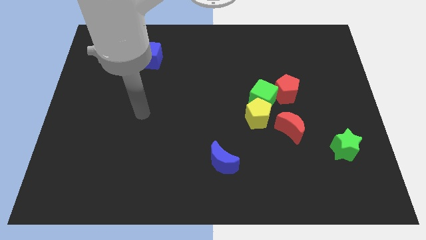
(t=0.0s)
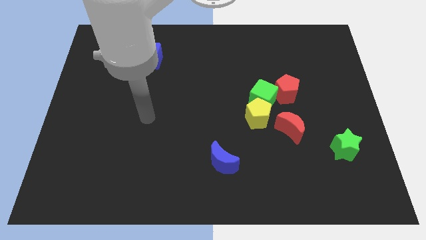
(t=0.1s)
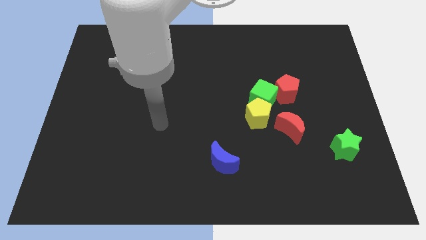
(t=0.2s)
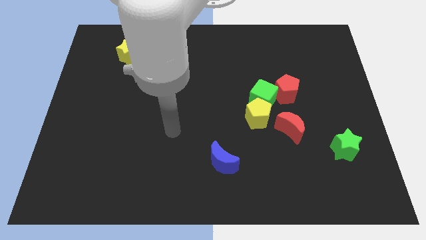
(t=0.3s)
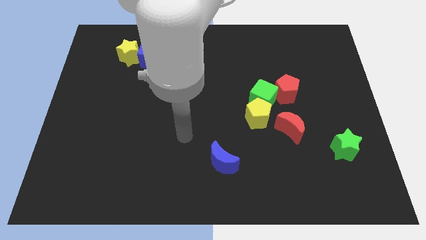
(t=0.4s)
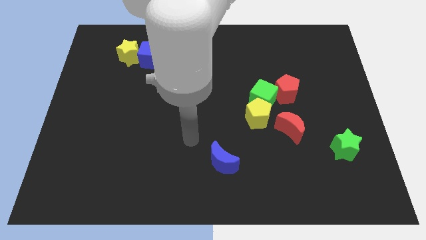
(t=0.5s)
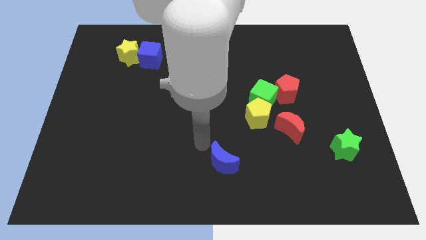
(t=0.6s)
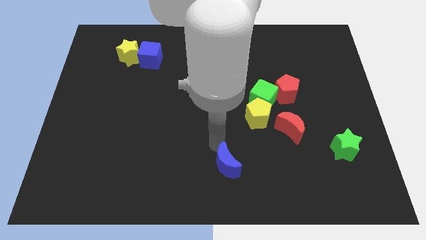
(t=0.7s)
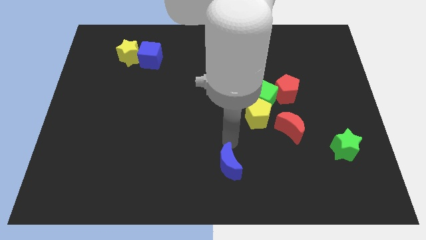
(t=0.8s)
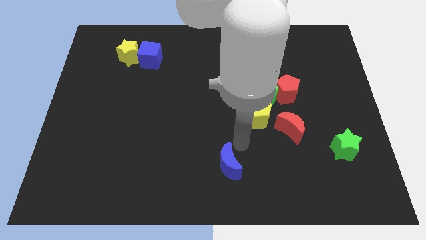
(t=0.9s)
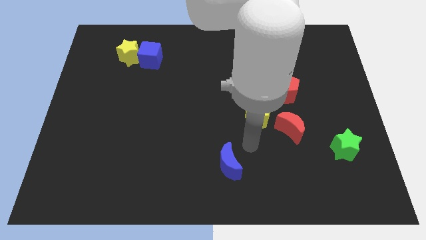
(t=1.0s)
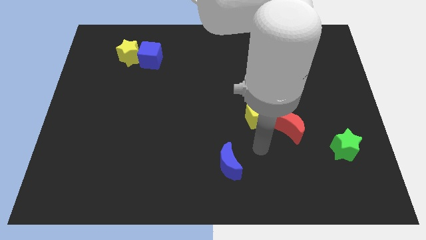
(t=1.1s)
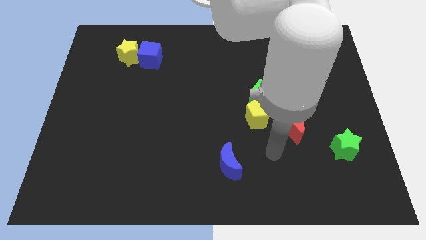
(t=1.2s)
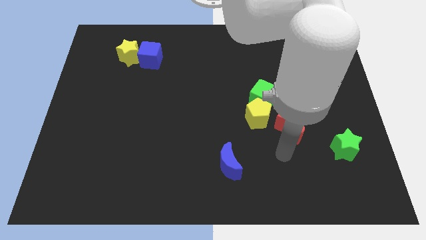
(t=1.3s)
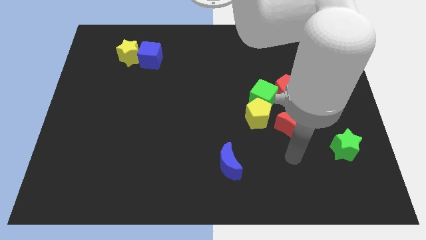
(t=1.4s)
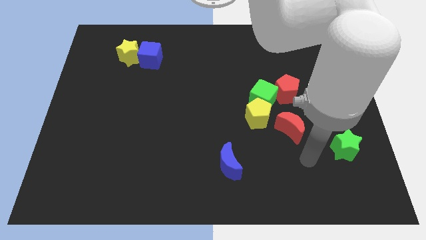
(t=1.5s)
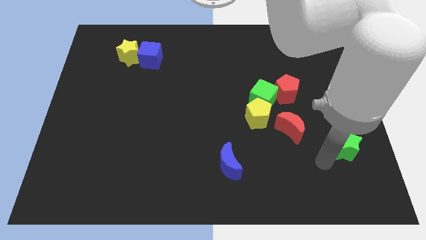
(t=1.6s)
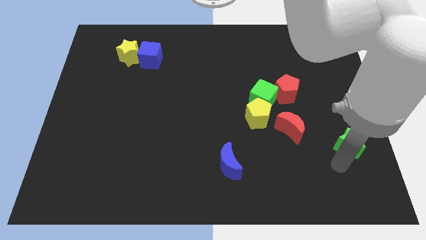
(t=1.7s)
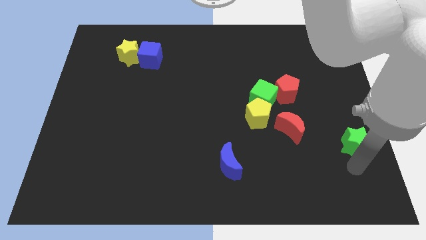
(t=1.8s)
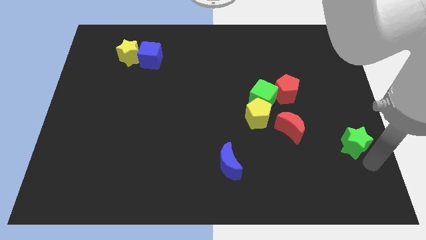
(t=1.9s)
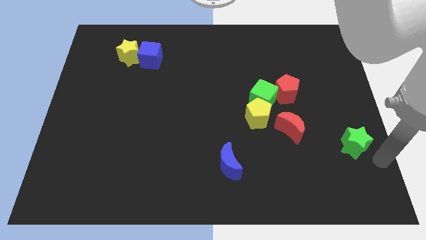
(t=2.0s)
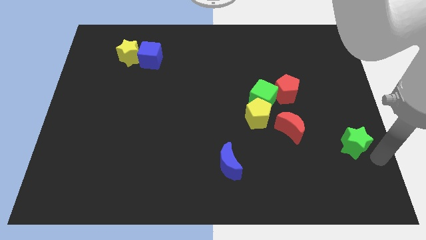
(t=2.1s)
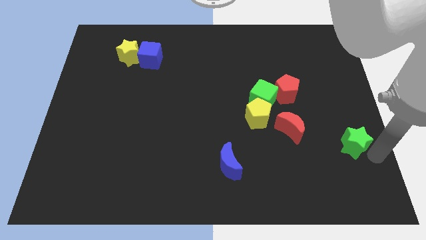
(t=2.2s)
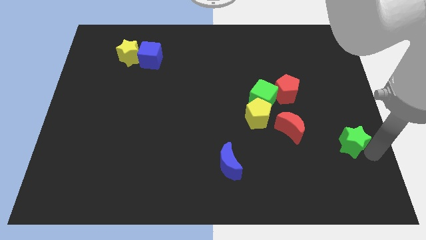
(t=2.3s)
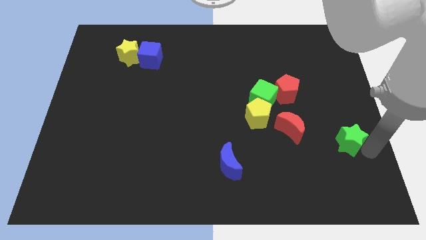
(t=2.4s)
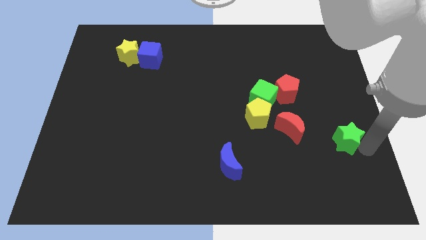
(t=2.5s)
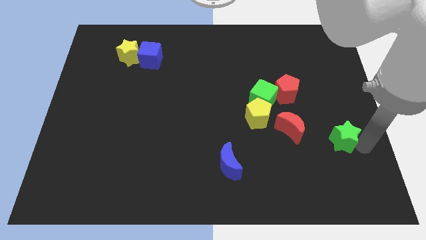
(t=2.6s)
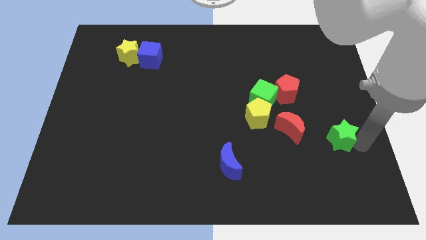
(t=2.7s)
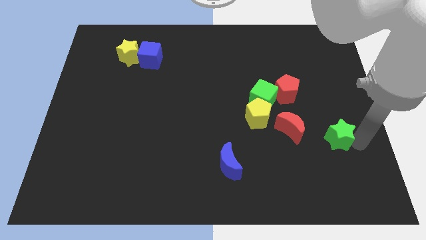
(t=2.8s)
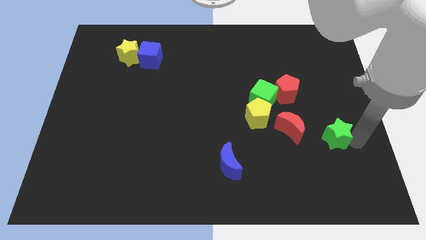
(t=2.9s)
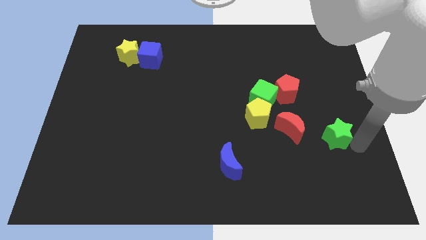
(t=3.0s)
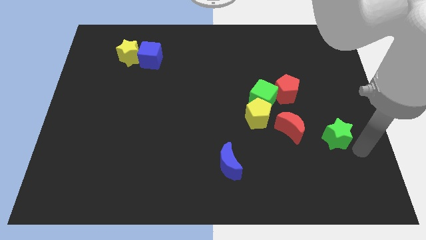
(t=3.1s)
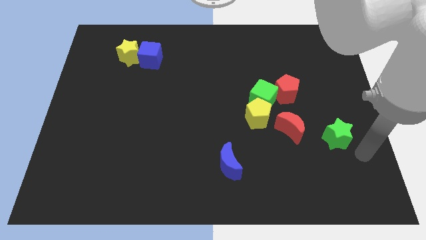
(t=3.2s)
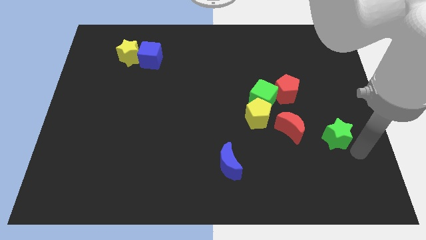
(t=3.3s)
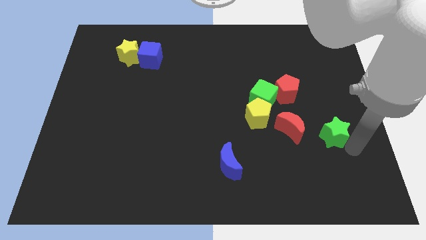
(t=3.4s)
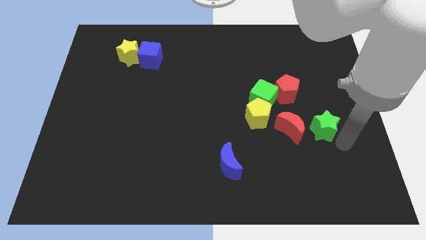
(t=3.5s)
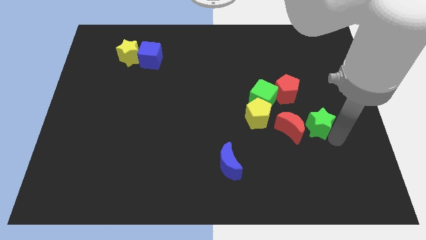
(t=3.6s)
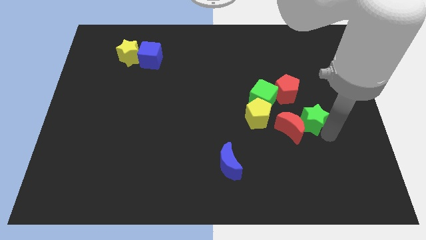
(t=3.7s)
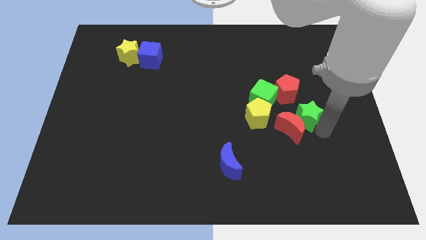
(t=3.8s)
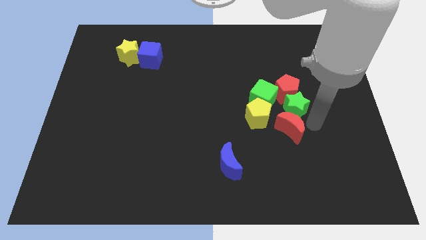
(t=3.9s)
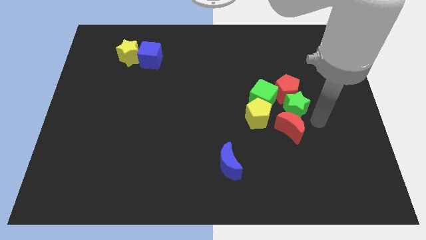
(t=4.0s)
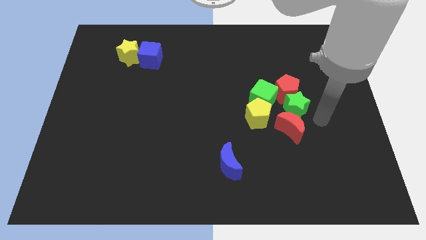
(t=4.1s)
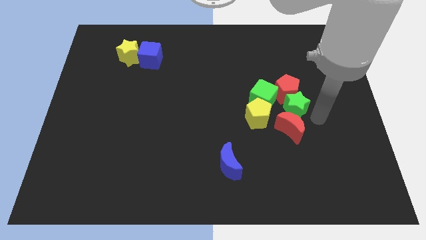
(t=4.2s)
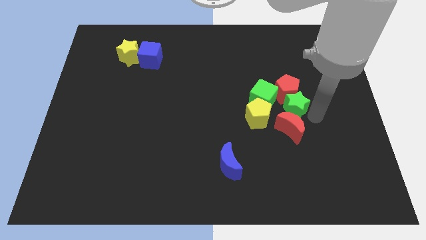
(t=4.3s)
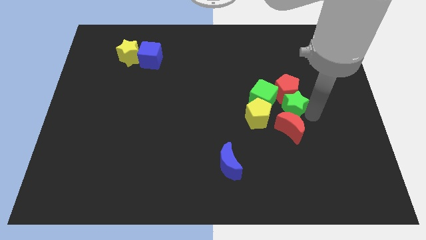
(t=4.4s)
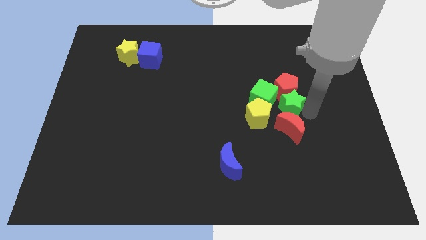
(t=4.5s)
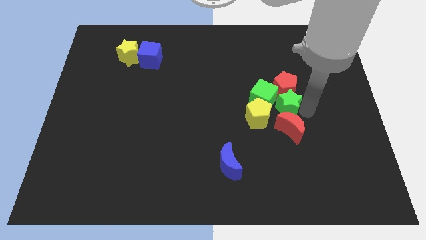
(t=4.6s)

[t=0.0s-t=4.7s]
push the green star next to the green cube

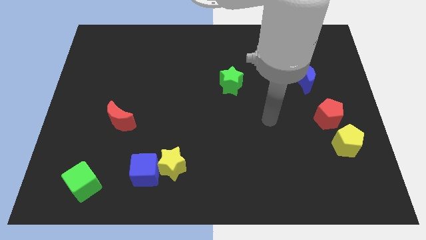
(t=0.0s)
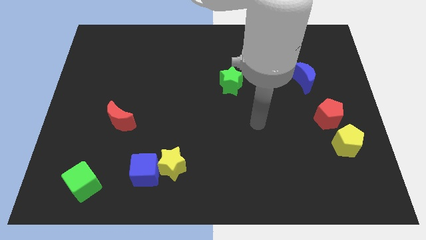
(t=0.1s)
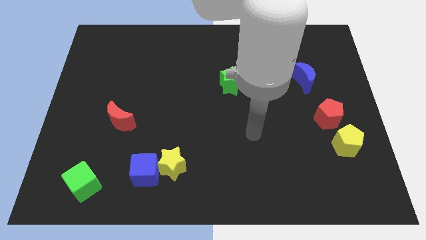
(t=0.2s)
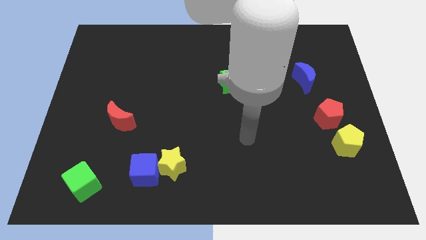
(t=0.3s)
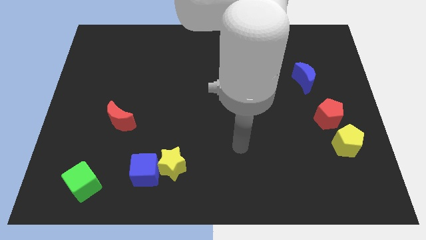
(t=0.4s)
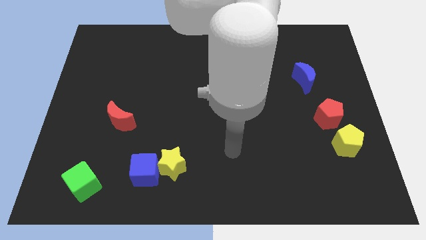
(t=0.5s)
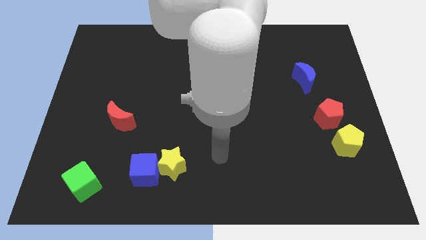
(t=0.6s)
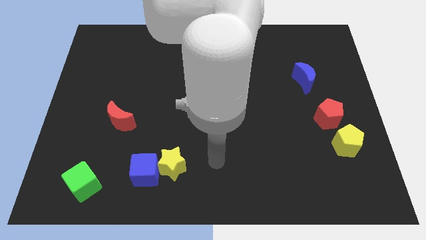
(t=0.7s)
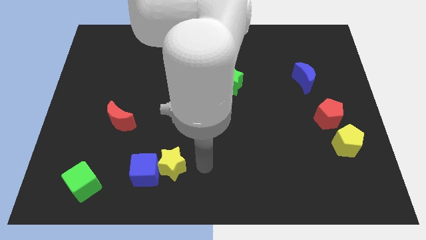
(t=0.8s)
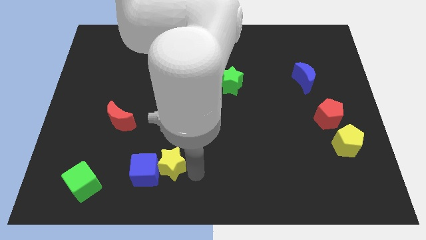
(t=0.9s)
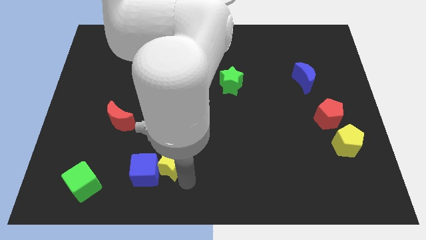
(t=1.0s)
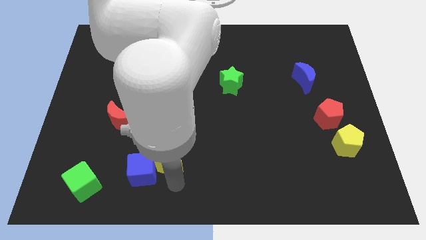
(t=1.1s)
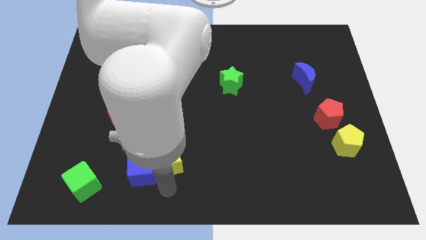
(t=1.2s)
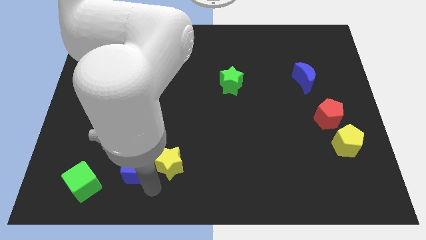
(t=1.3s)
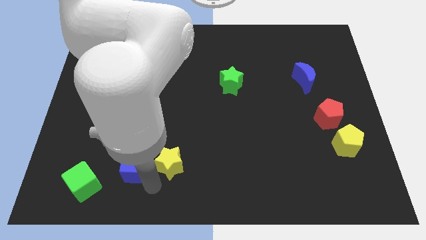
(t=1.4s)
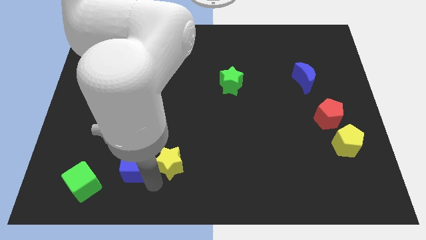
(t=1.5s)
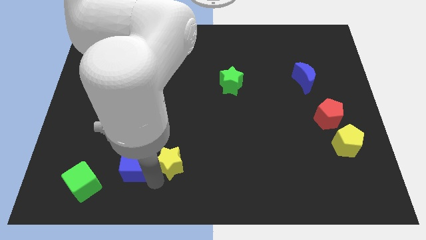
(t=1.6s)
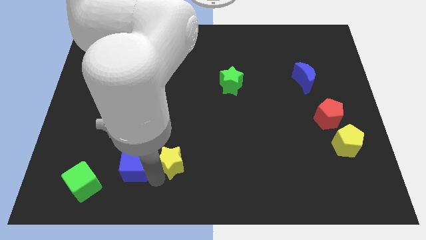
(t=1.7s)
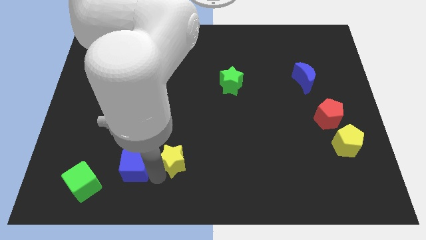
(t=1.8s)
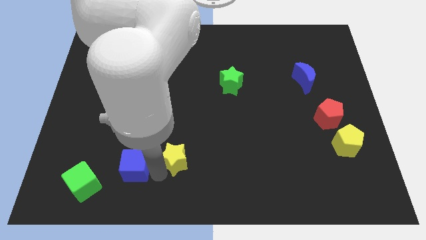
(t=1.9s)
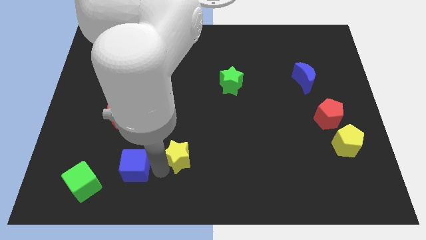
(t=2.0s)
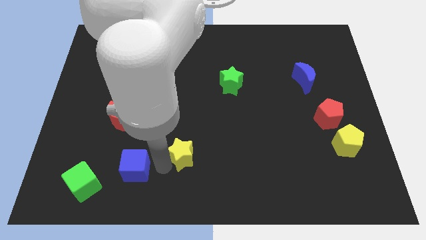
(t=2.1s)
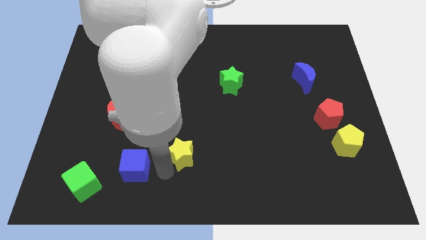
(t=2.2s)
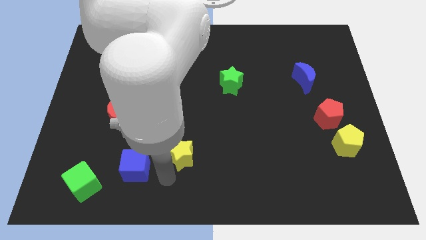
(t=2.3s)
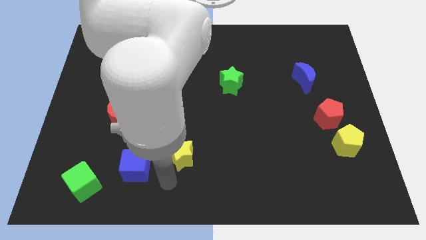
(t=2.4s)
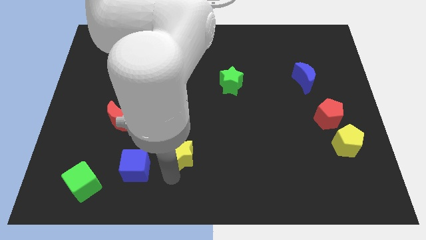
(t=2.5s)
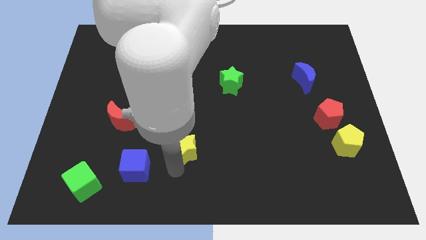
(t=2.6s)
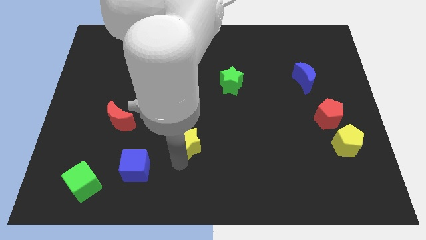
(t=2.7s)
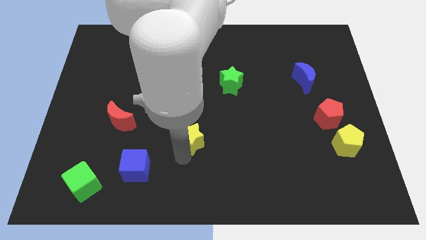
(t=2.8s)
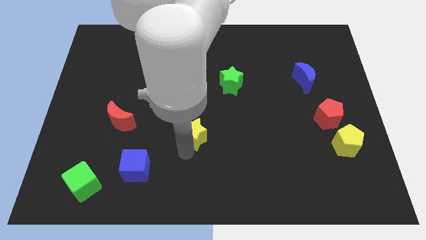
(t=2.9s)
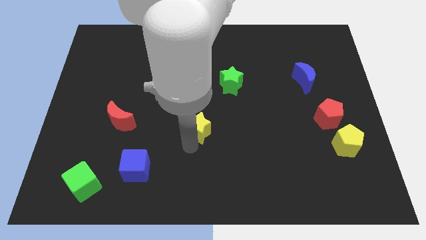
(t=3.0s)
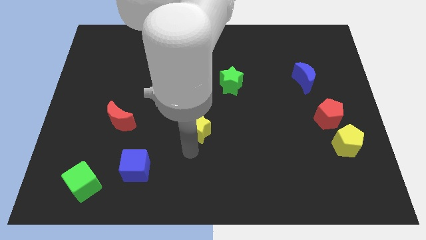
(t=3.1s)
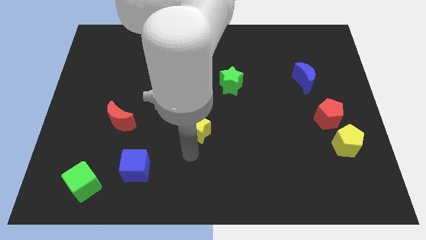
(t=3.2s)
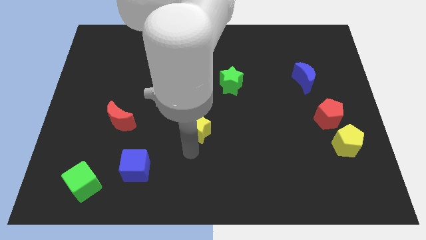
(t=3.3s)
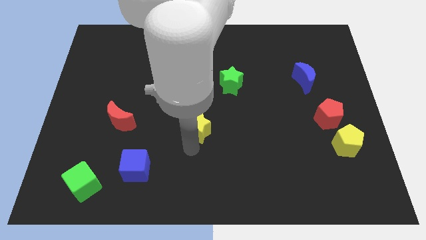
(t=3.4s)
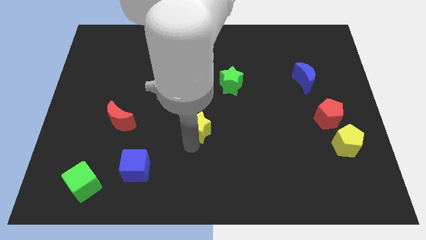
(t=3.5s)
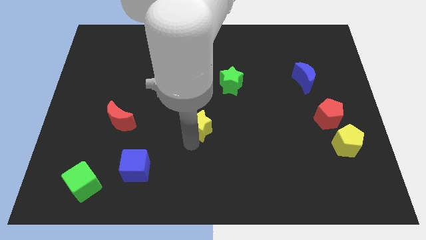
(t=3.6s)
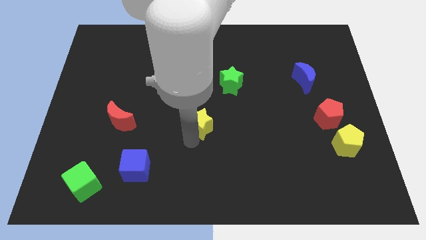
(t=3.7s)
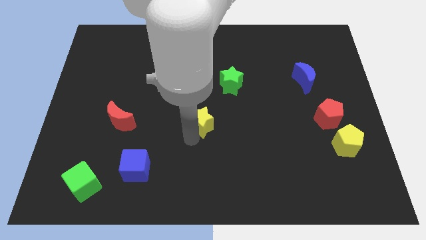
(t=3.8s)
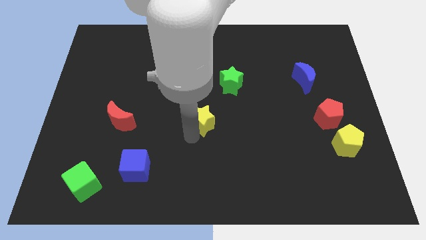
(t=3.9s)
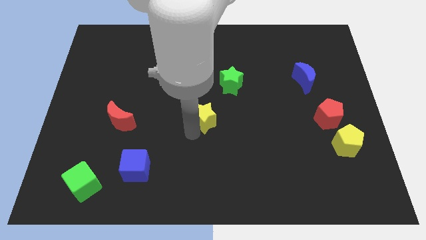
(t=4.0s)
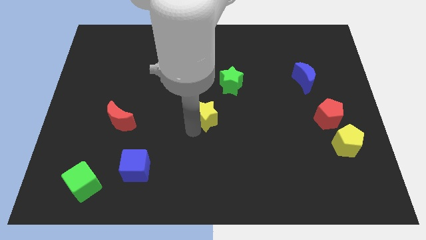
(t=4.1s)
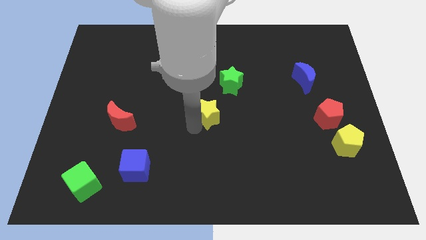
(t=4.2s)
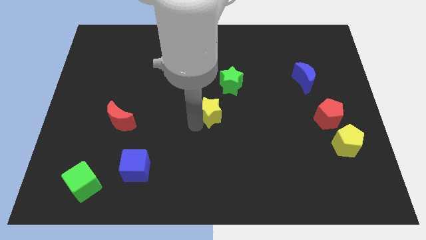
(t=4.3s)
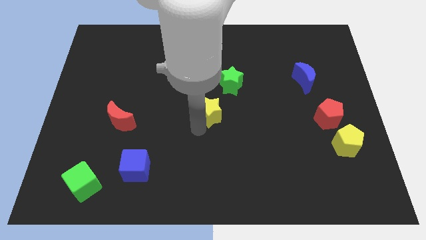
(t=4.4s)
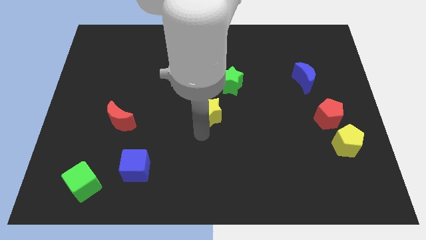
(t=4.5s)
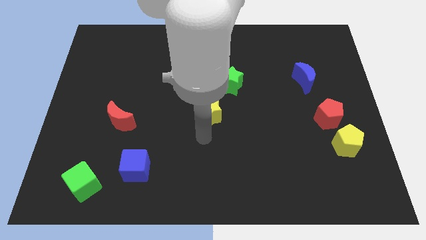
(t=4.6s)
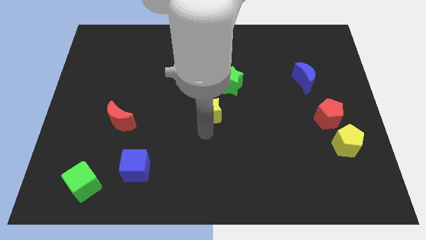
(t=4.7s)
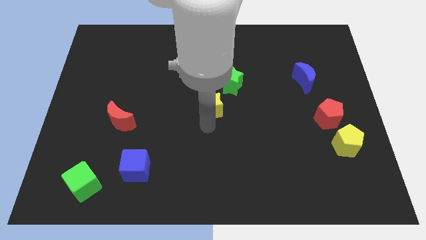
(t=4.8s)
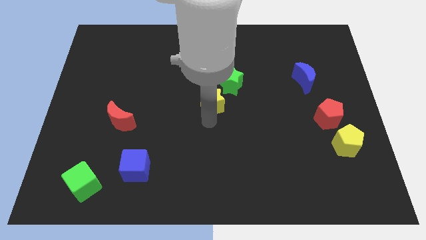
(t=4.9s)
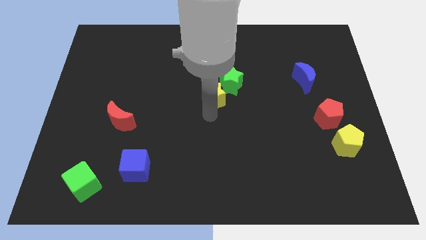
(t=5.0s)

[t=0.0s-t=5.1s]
move the yellow star close to the green star
